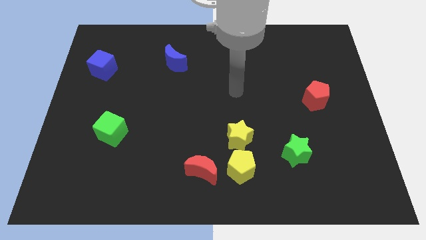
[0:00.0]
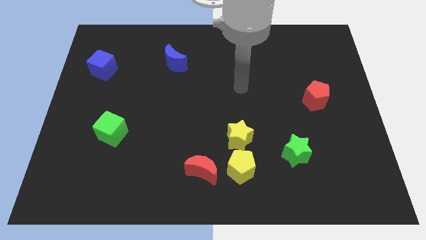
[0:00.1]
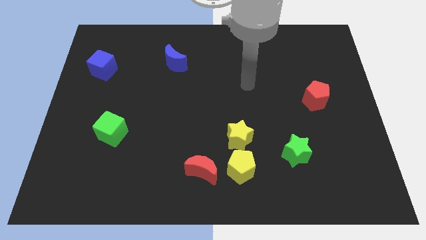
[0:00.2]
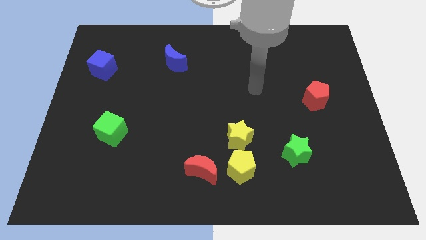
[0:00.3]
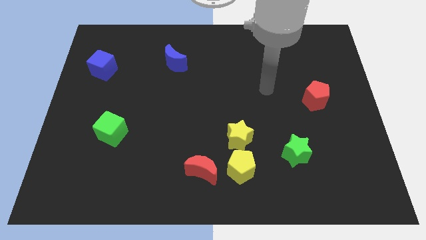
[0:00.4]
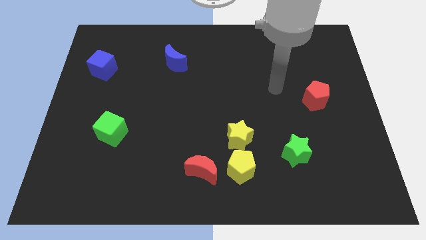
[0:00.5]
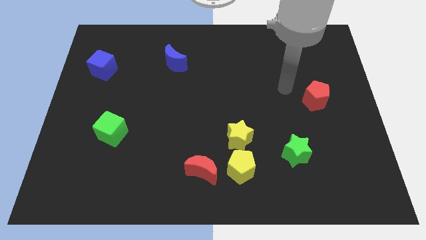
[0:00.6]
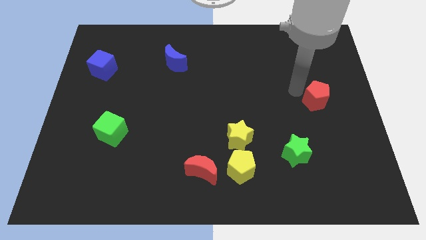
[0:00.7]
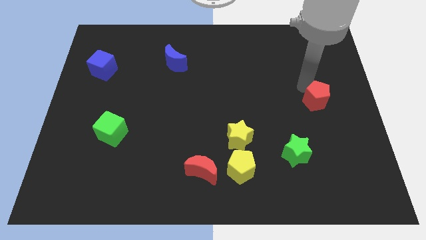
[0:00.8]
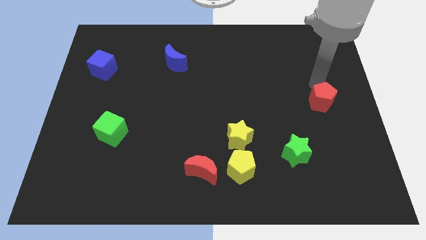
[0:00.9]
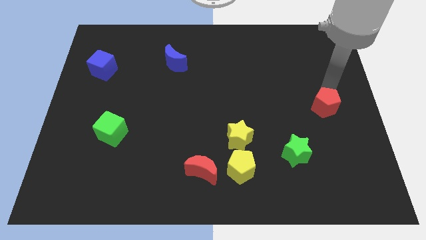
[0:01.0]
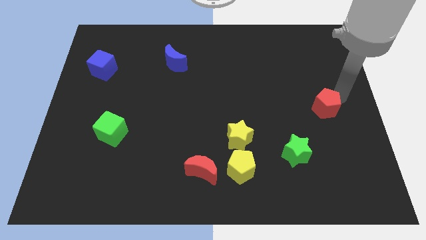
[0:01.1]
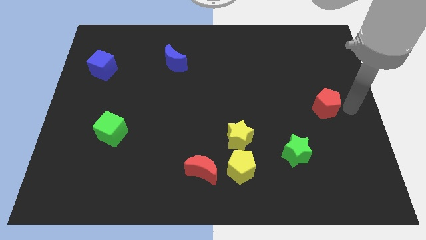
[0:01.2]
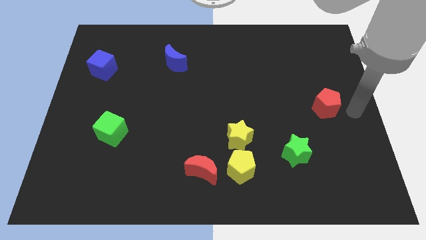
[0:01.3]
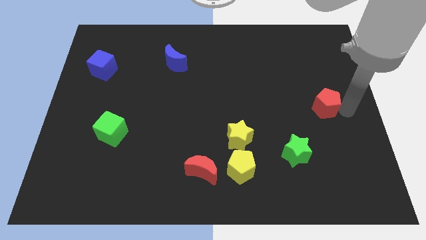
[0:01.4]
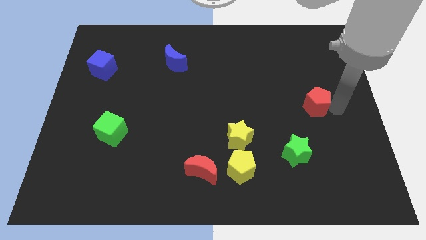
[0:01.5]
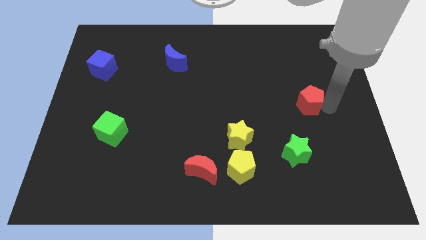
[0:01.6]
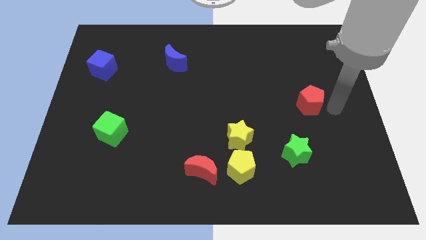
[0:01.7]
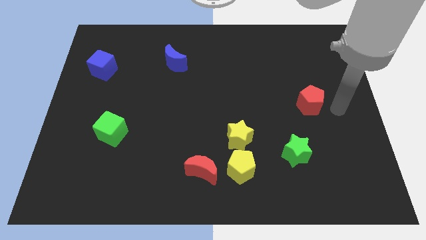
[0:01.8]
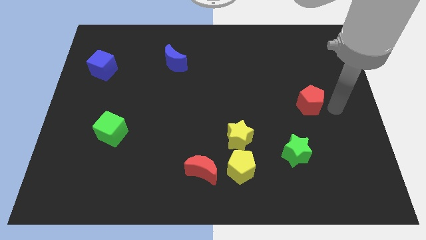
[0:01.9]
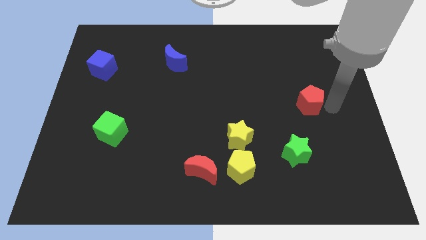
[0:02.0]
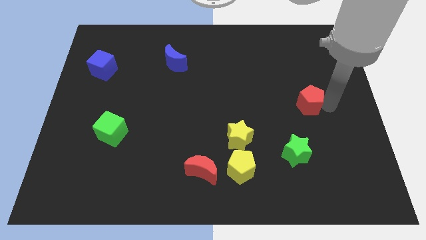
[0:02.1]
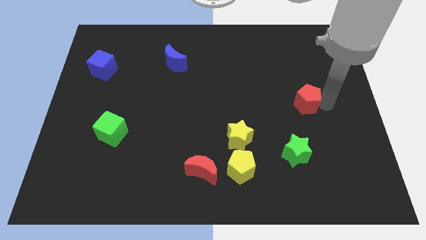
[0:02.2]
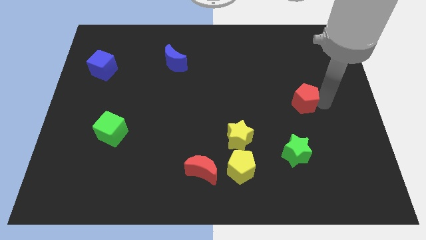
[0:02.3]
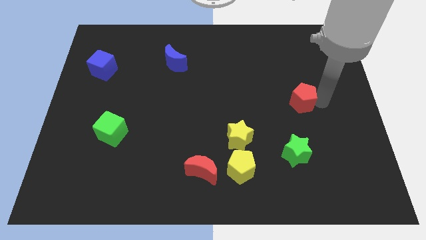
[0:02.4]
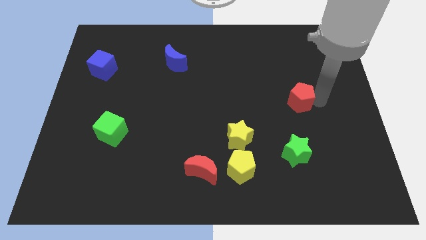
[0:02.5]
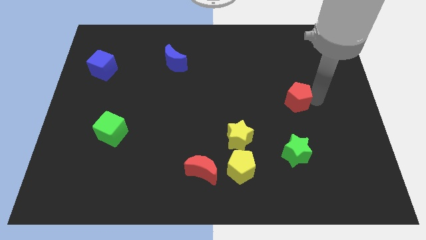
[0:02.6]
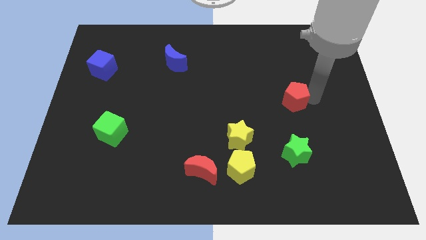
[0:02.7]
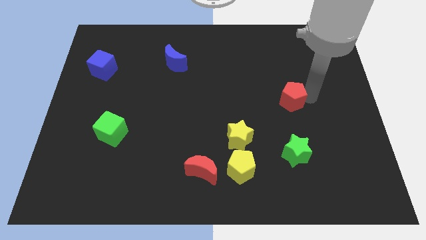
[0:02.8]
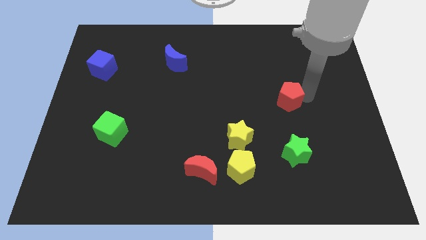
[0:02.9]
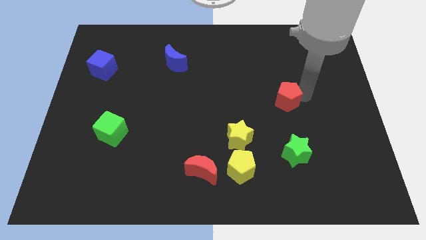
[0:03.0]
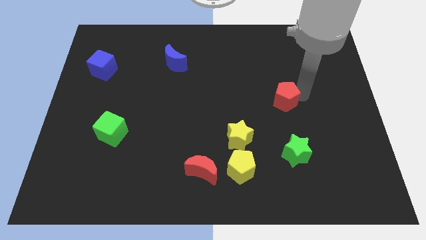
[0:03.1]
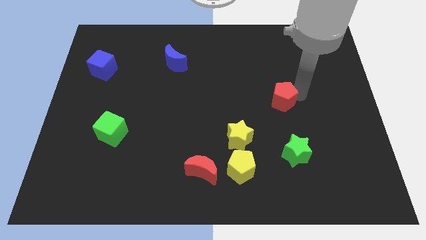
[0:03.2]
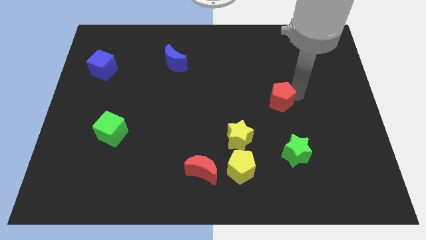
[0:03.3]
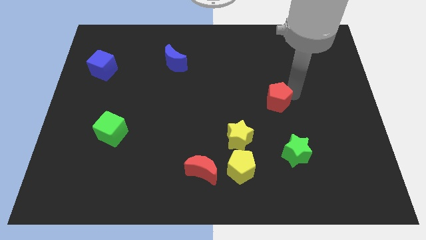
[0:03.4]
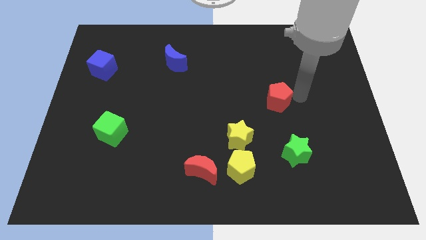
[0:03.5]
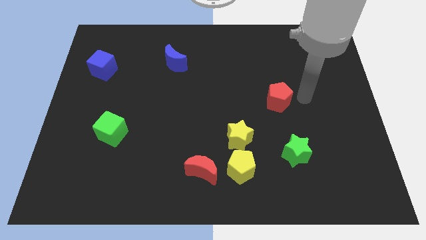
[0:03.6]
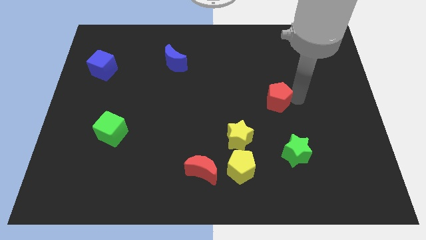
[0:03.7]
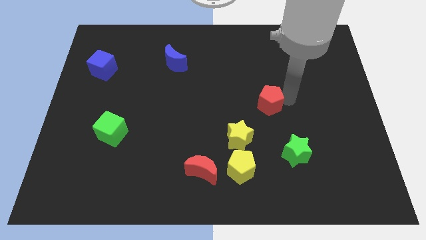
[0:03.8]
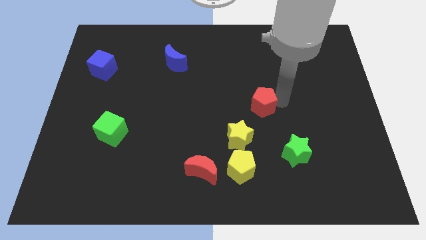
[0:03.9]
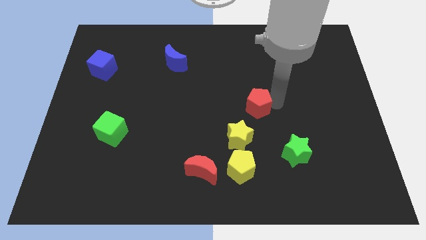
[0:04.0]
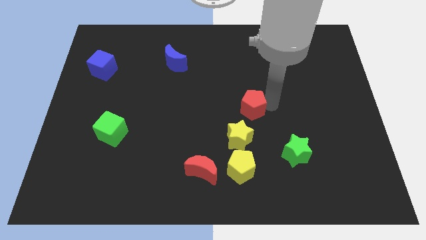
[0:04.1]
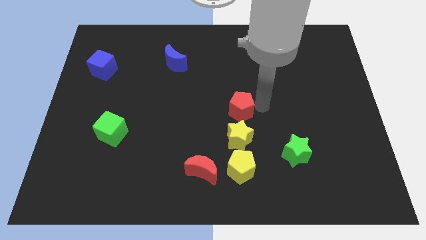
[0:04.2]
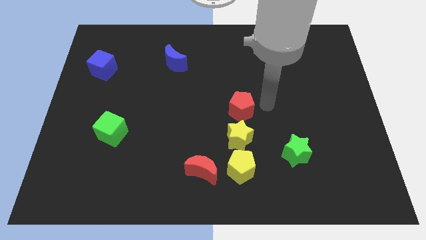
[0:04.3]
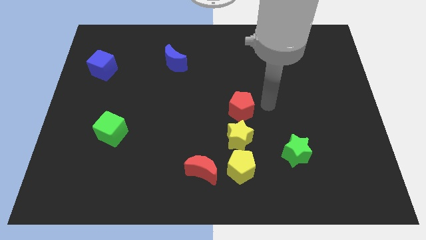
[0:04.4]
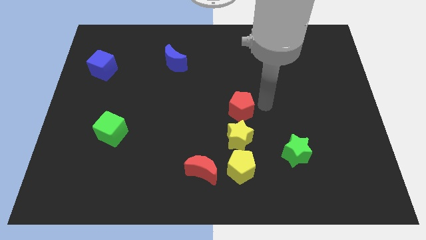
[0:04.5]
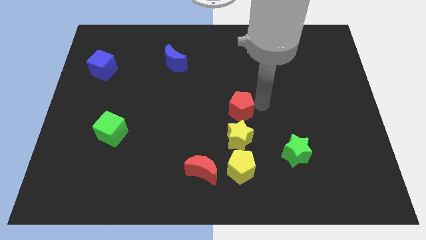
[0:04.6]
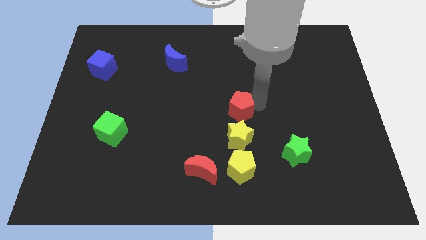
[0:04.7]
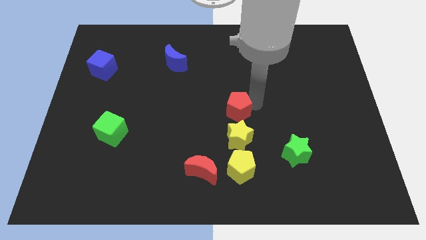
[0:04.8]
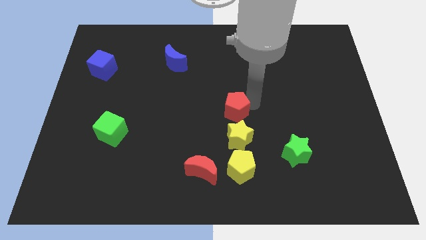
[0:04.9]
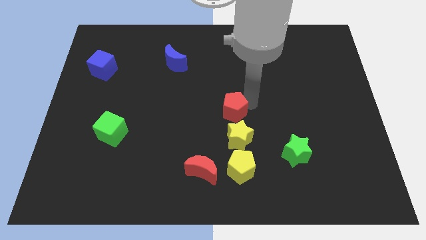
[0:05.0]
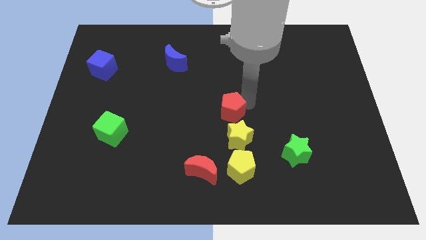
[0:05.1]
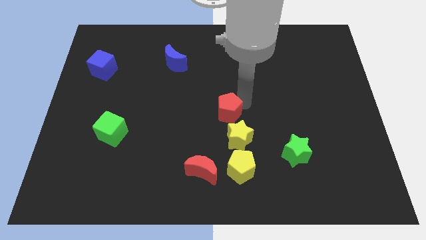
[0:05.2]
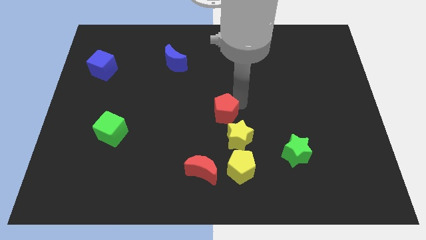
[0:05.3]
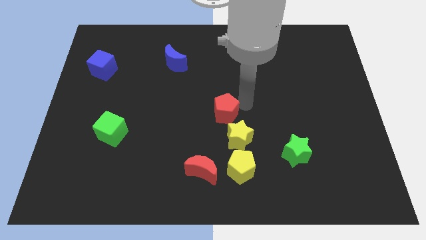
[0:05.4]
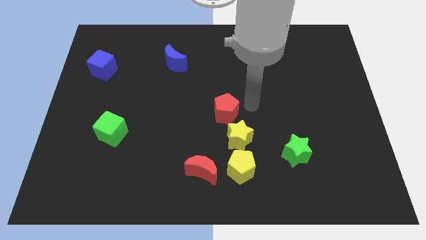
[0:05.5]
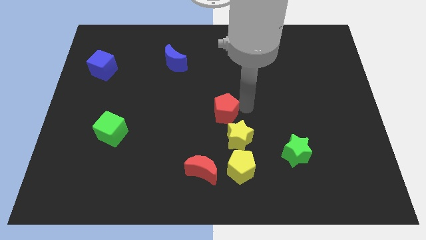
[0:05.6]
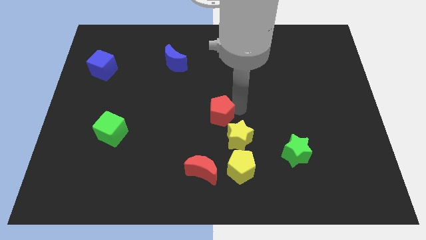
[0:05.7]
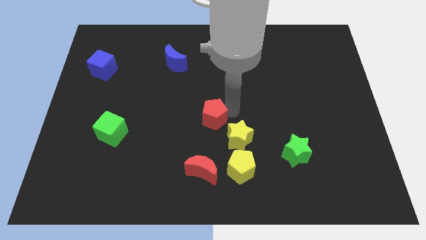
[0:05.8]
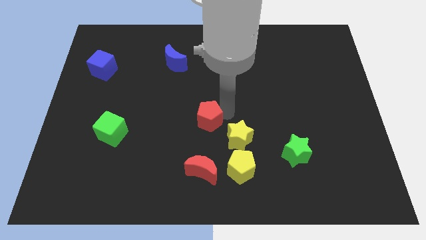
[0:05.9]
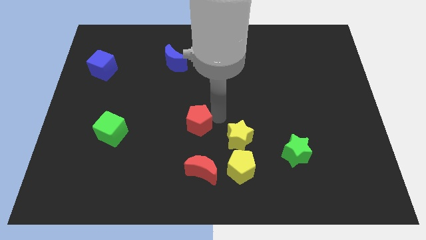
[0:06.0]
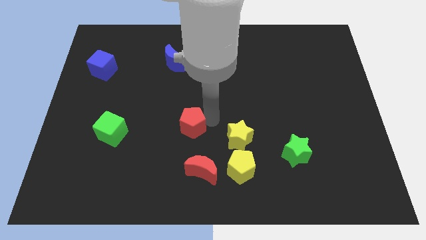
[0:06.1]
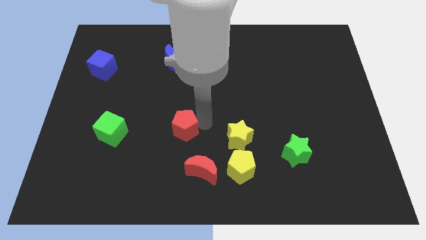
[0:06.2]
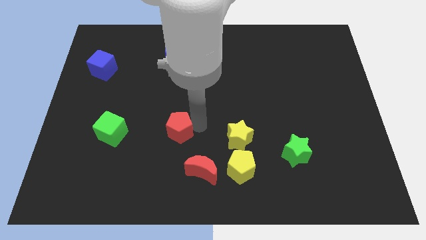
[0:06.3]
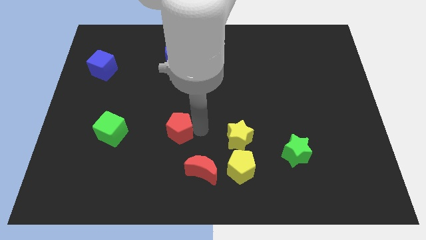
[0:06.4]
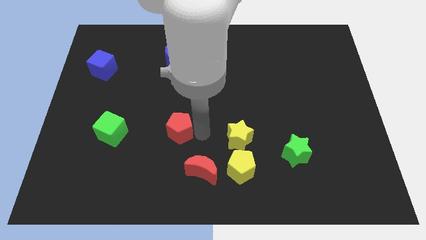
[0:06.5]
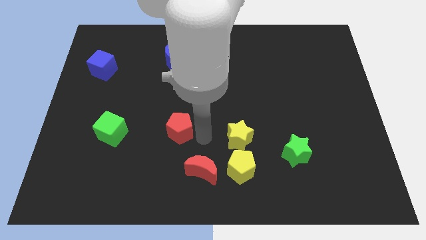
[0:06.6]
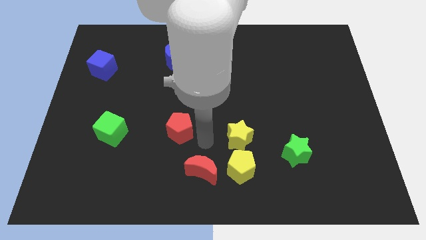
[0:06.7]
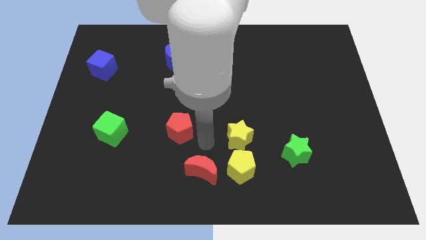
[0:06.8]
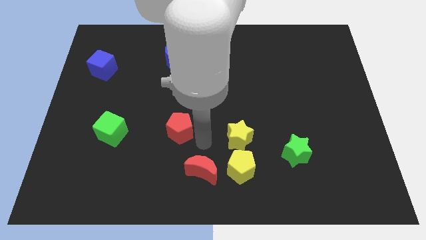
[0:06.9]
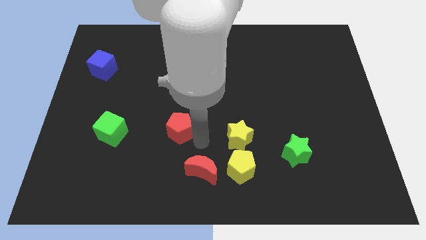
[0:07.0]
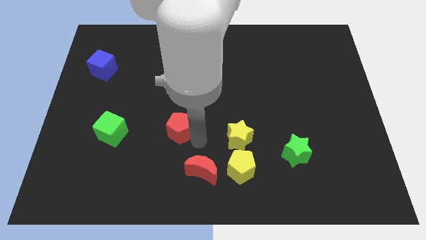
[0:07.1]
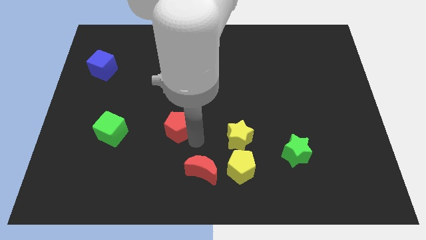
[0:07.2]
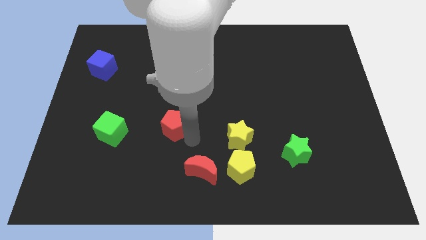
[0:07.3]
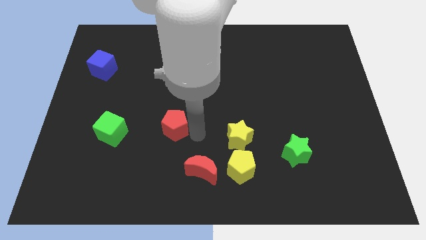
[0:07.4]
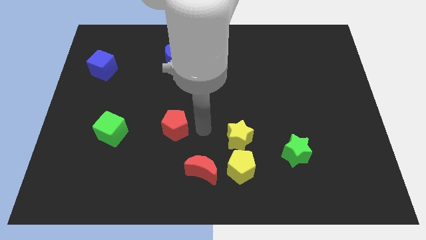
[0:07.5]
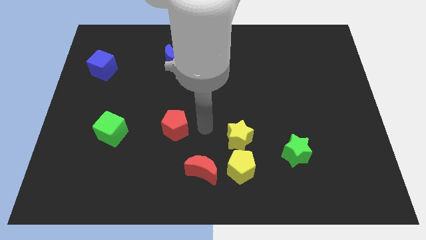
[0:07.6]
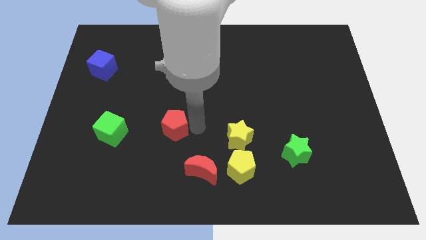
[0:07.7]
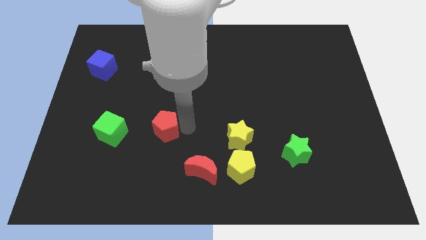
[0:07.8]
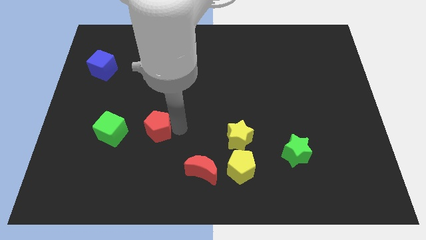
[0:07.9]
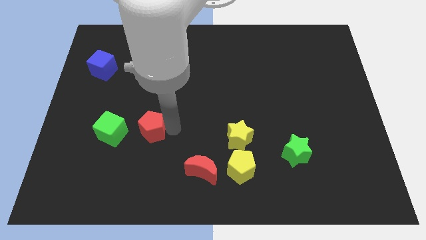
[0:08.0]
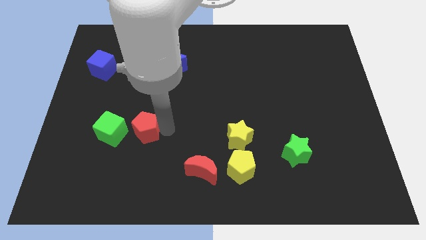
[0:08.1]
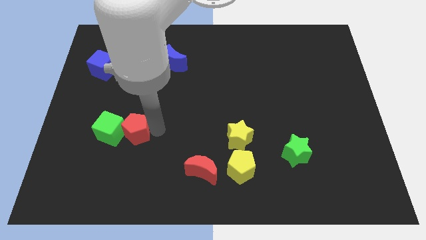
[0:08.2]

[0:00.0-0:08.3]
slide the red pentagon towards the green cube
